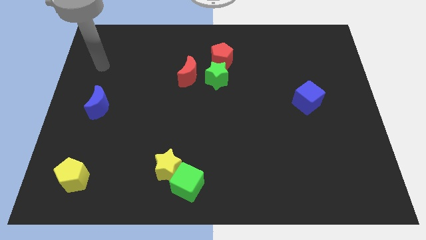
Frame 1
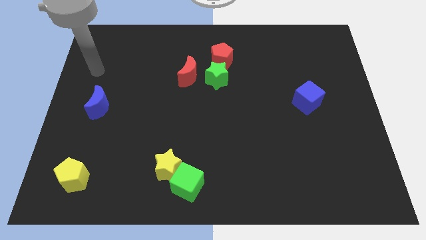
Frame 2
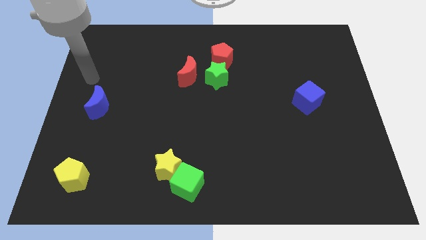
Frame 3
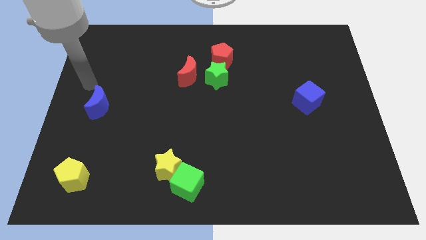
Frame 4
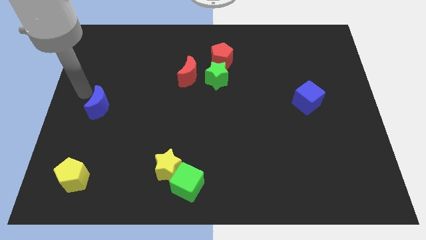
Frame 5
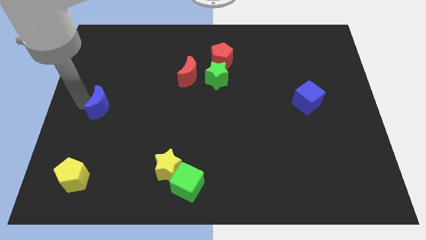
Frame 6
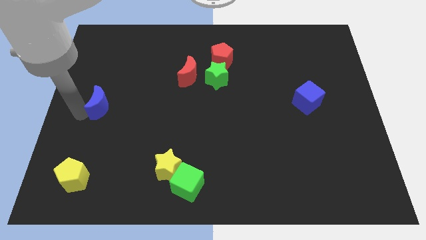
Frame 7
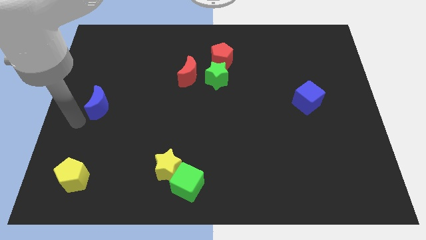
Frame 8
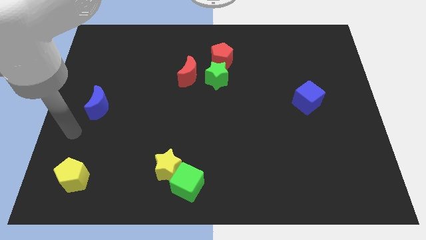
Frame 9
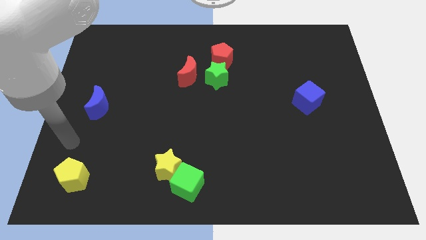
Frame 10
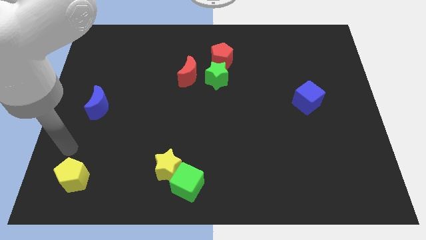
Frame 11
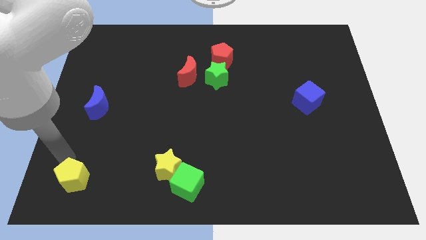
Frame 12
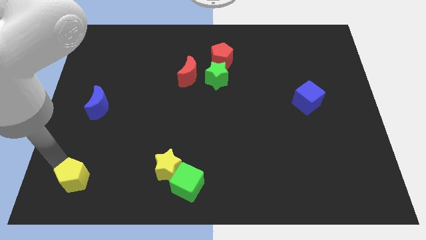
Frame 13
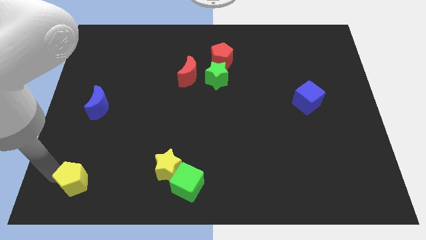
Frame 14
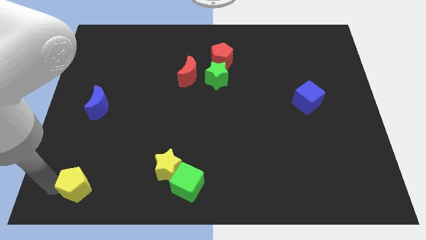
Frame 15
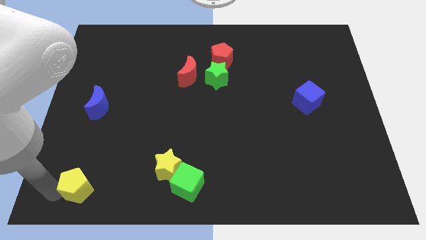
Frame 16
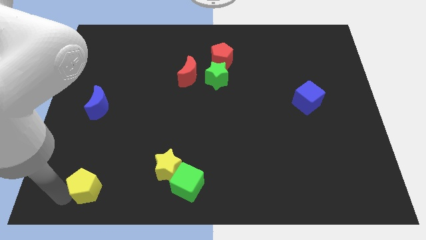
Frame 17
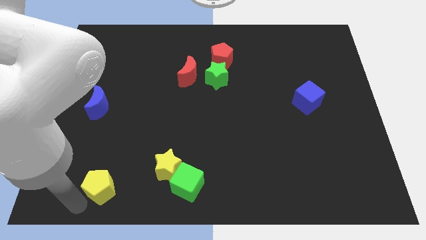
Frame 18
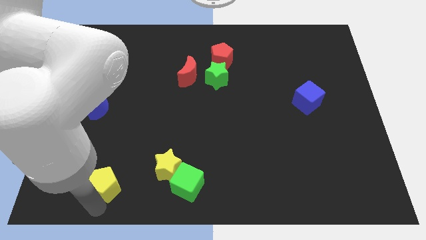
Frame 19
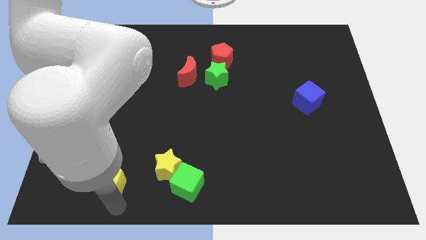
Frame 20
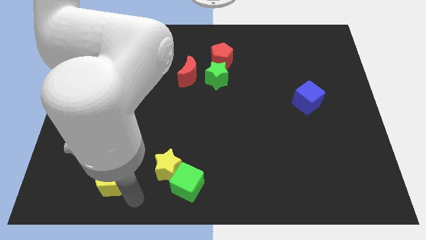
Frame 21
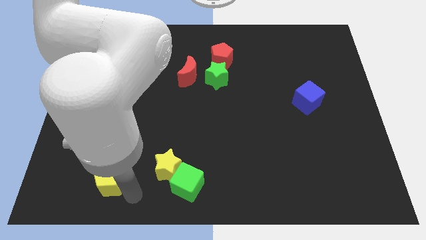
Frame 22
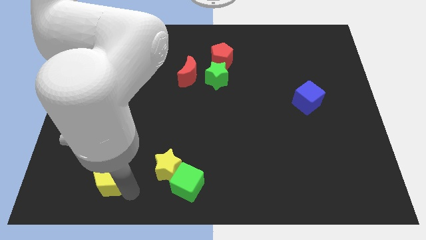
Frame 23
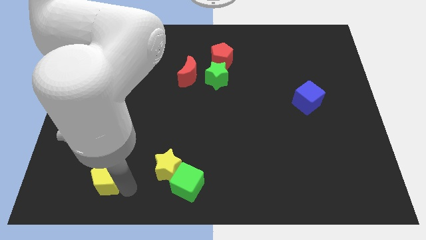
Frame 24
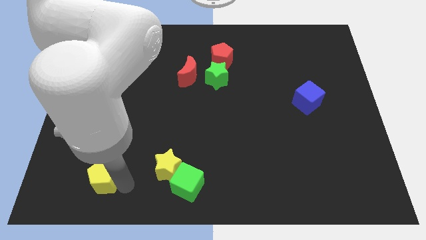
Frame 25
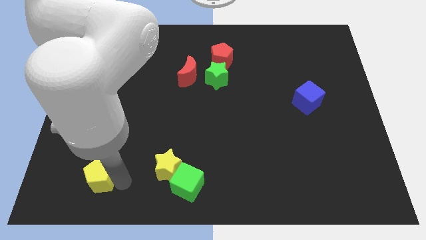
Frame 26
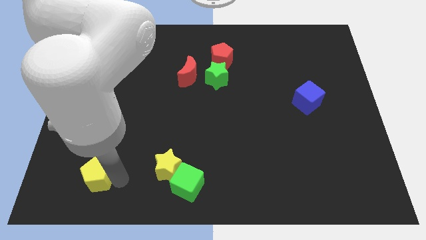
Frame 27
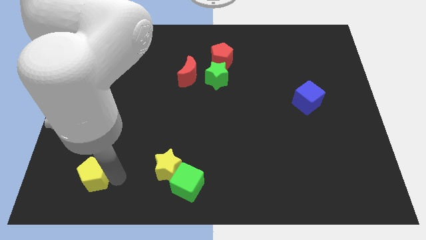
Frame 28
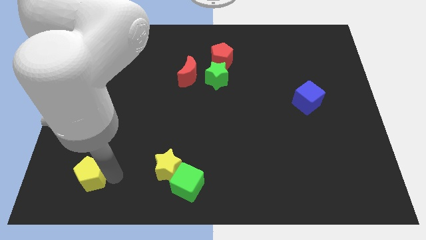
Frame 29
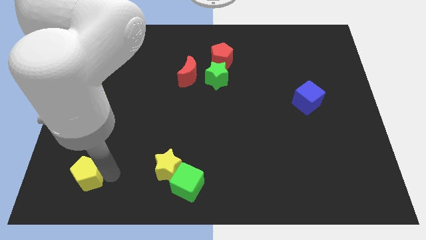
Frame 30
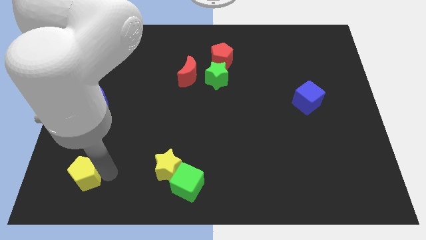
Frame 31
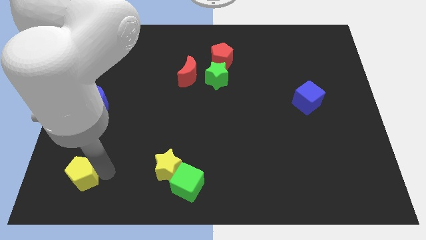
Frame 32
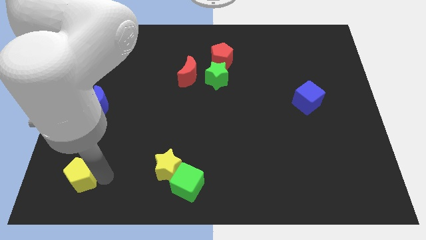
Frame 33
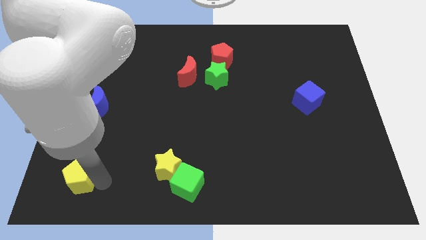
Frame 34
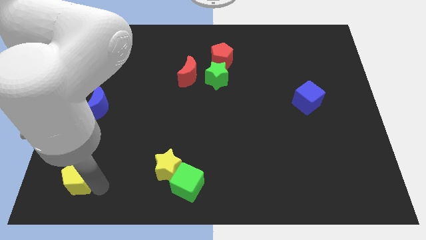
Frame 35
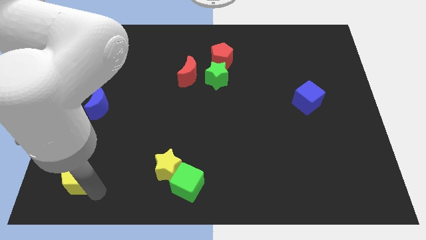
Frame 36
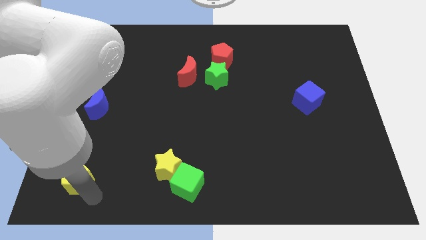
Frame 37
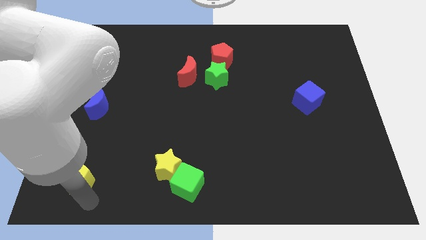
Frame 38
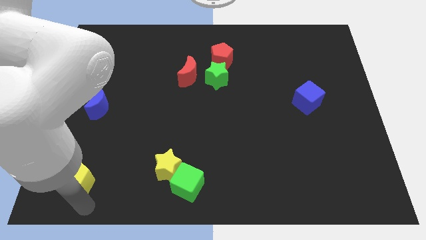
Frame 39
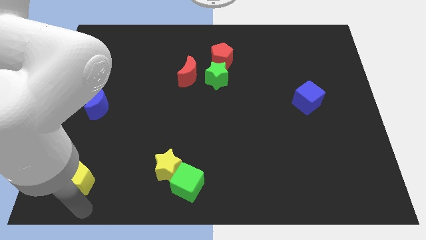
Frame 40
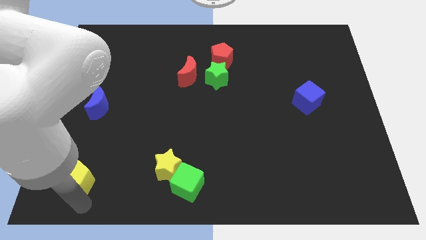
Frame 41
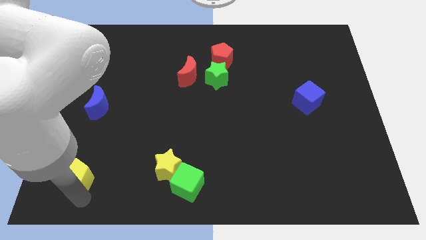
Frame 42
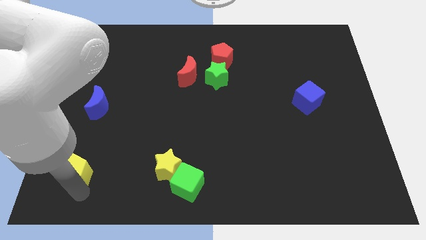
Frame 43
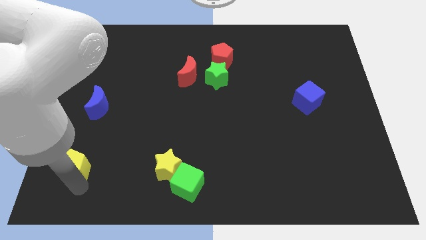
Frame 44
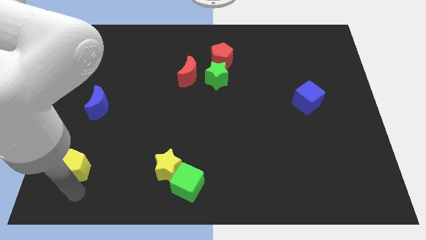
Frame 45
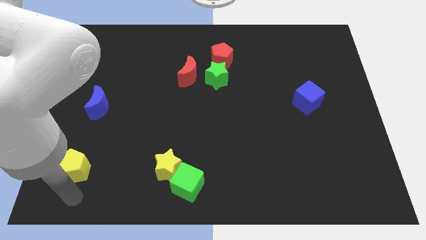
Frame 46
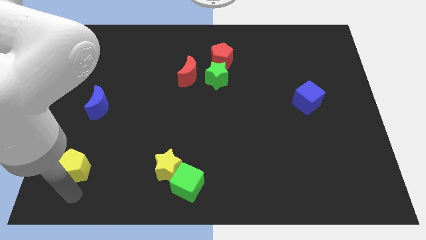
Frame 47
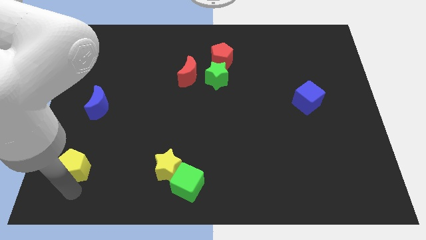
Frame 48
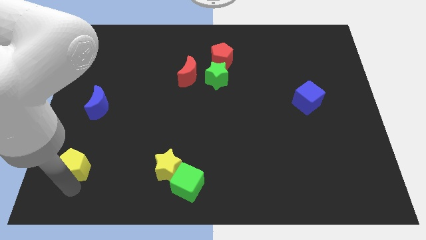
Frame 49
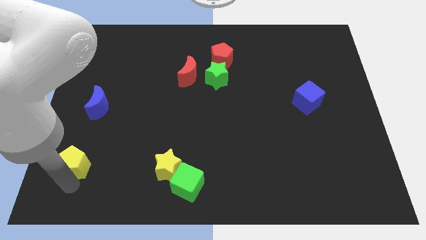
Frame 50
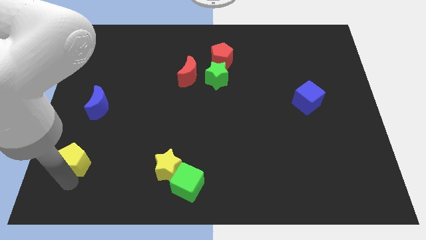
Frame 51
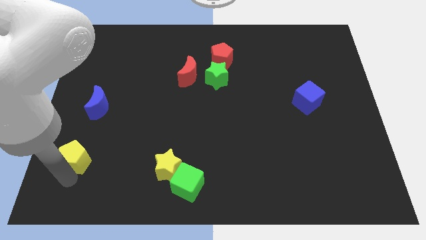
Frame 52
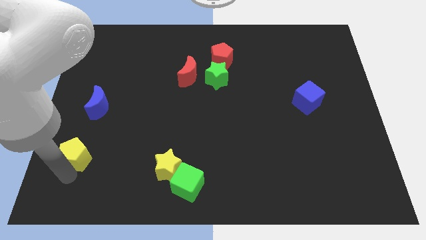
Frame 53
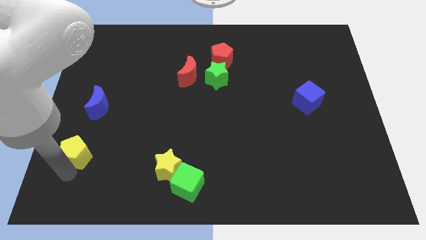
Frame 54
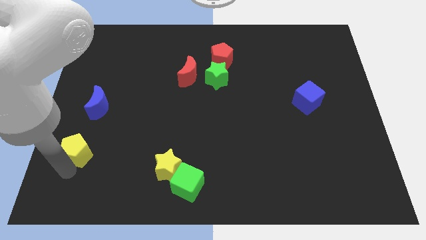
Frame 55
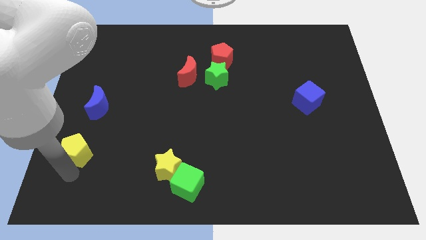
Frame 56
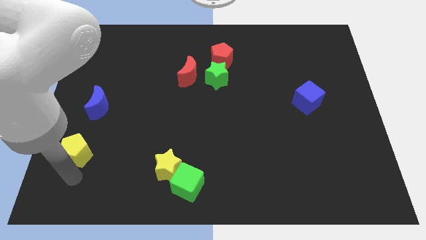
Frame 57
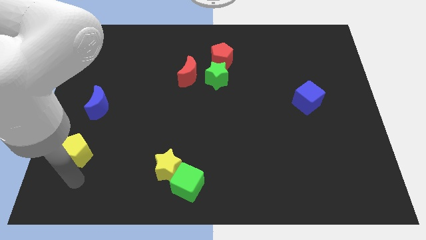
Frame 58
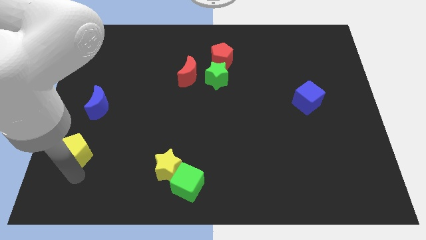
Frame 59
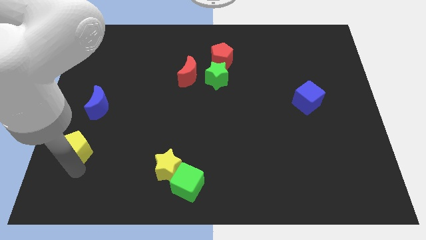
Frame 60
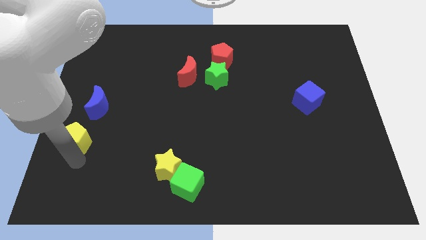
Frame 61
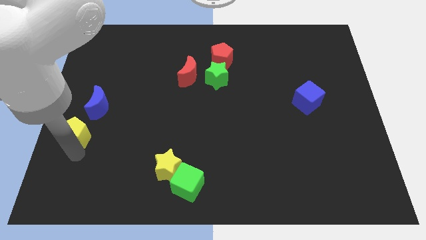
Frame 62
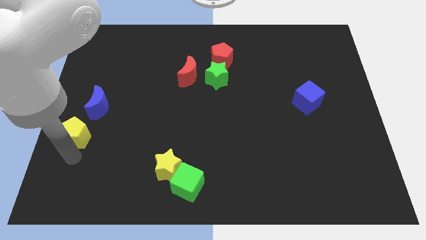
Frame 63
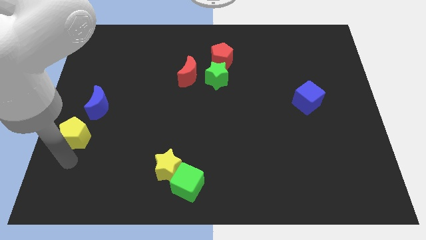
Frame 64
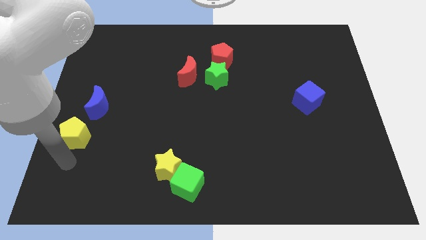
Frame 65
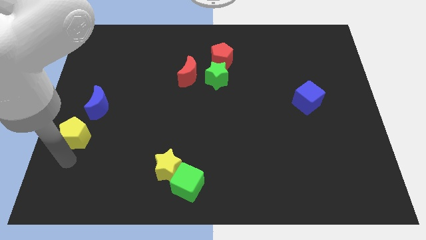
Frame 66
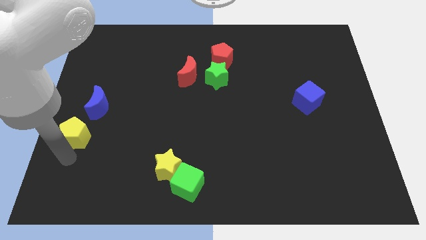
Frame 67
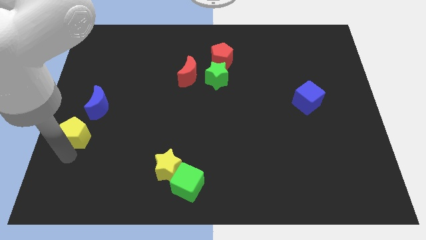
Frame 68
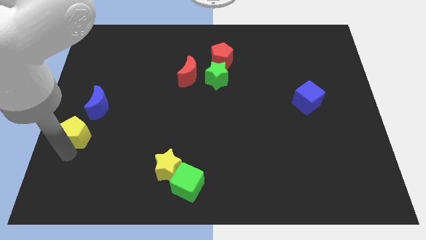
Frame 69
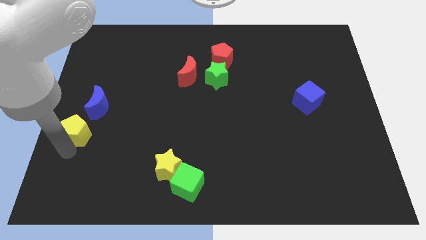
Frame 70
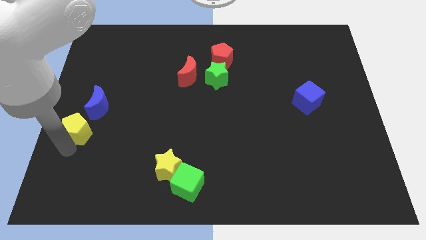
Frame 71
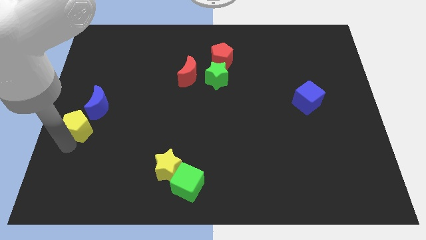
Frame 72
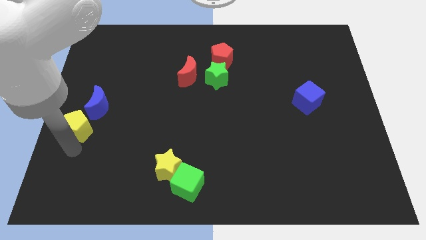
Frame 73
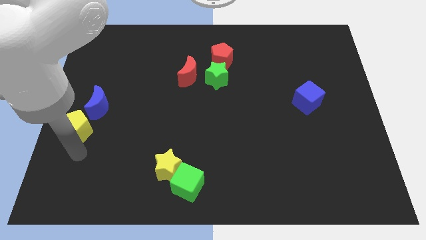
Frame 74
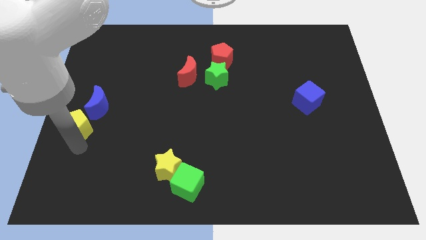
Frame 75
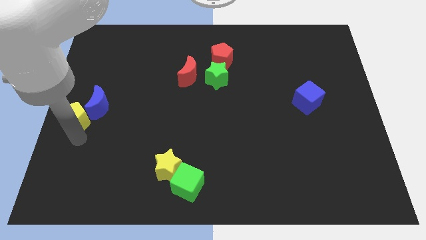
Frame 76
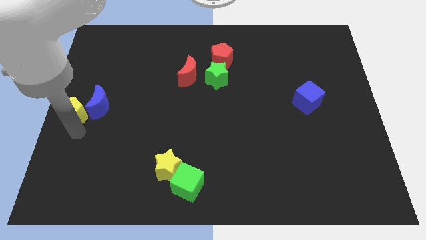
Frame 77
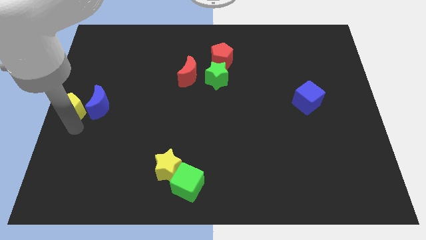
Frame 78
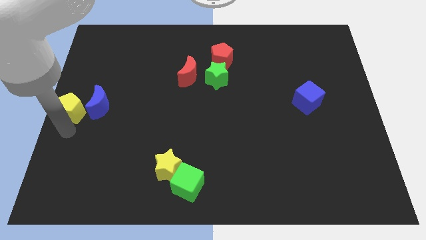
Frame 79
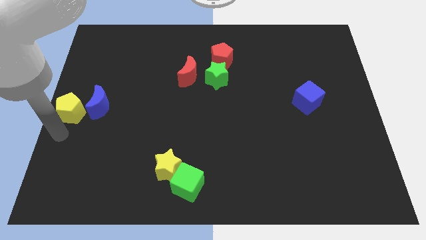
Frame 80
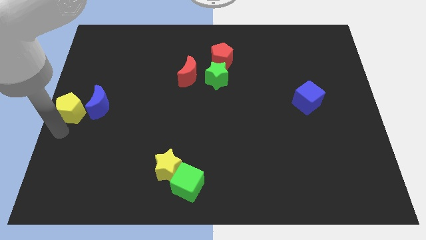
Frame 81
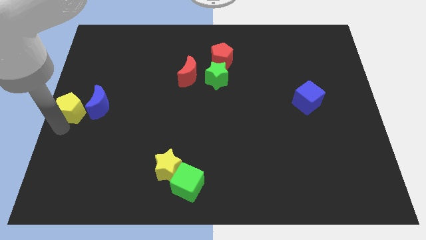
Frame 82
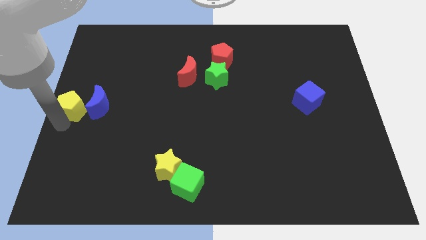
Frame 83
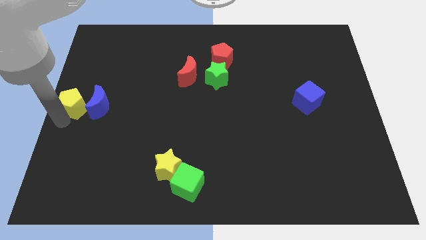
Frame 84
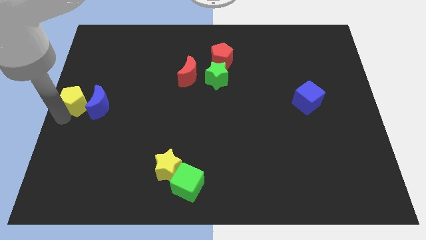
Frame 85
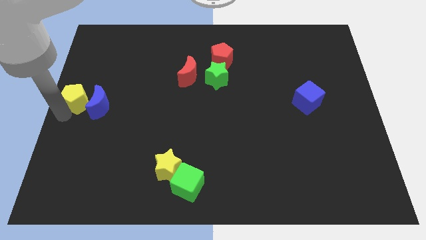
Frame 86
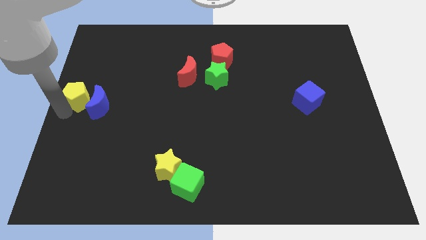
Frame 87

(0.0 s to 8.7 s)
slide the yellow pentagon up
